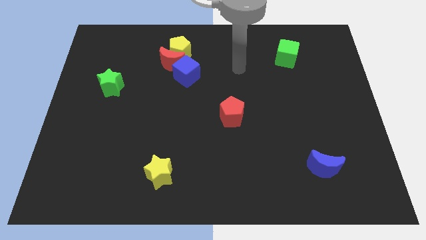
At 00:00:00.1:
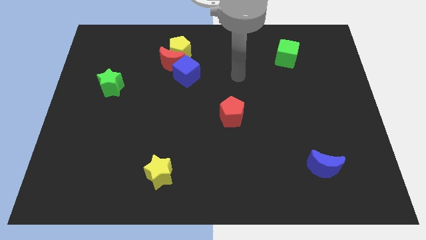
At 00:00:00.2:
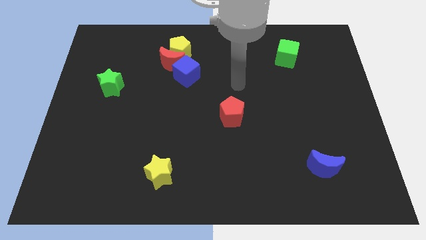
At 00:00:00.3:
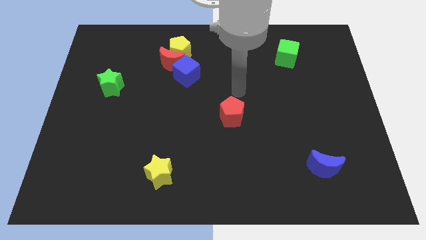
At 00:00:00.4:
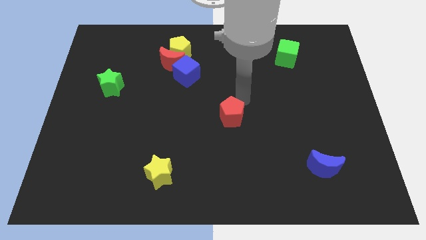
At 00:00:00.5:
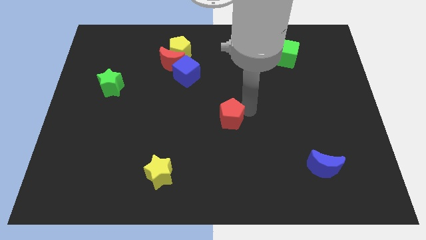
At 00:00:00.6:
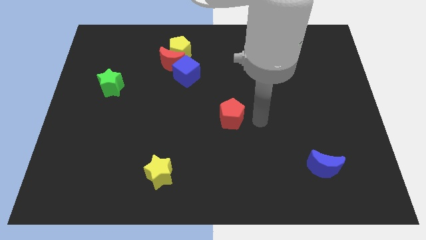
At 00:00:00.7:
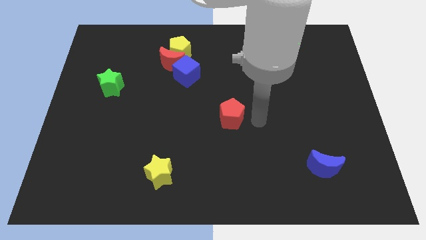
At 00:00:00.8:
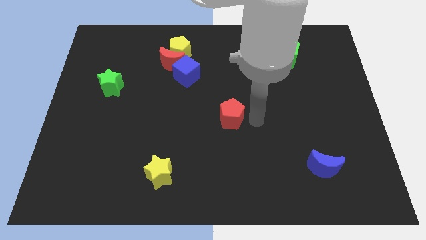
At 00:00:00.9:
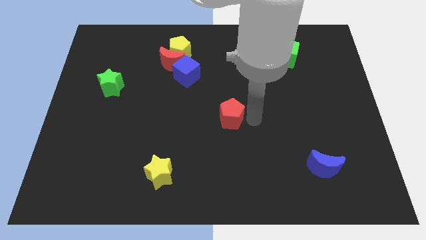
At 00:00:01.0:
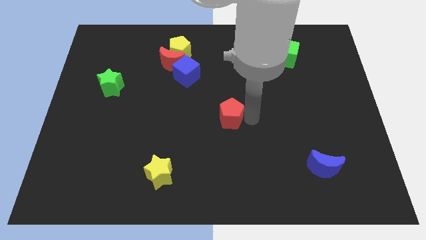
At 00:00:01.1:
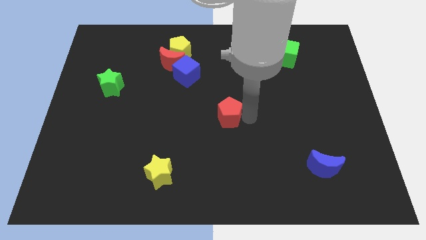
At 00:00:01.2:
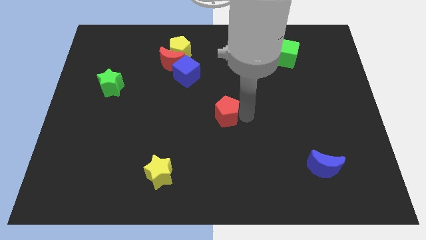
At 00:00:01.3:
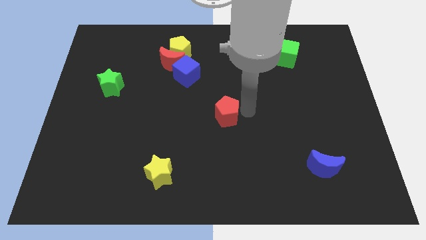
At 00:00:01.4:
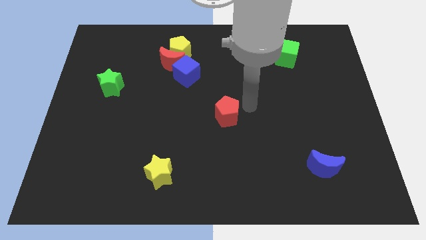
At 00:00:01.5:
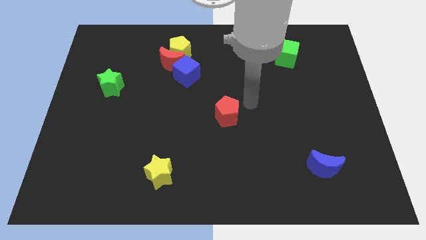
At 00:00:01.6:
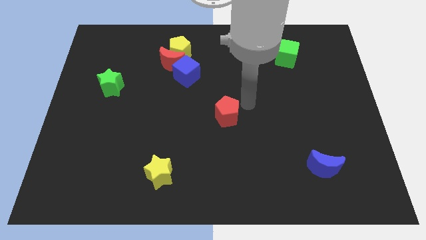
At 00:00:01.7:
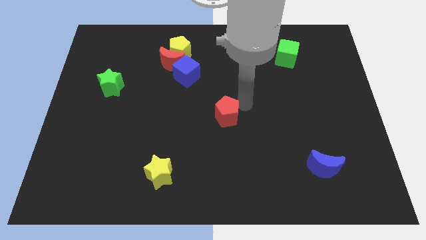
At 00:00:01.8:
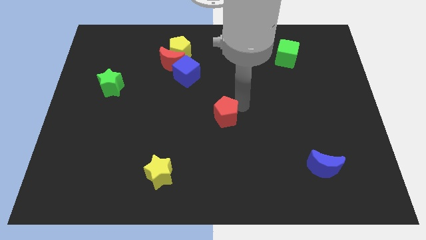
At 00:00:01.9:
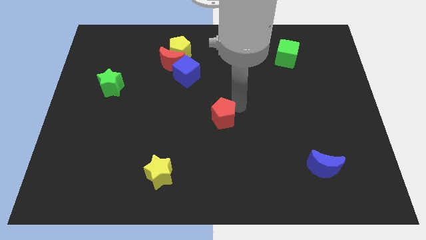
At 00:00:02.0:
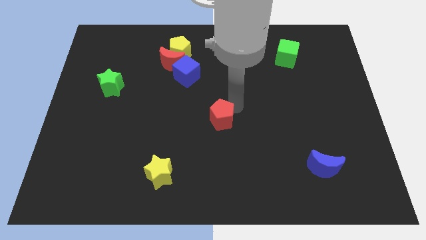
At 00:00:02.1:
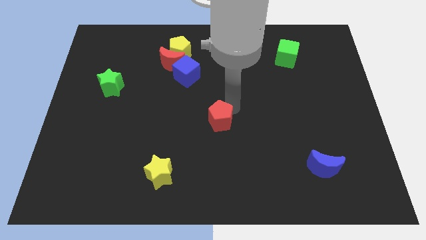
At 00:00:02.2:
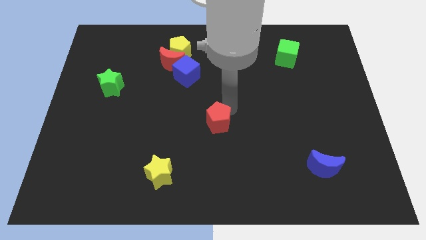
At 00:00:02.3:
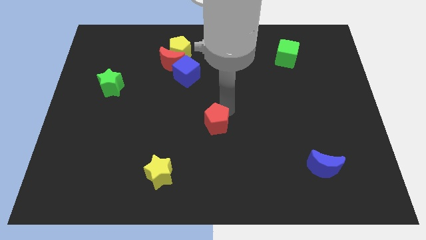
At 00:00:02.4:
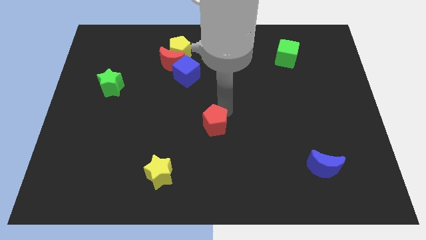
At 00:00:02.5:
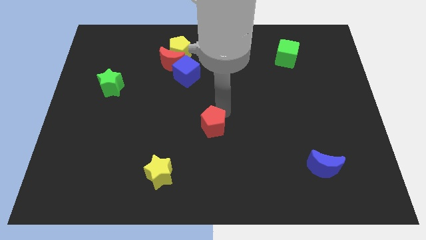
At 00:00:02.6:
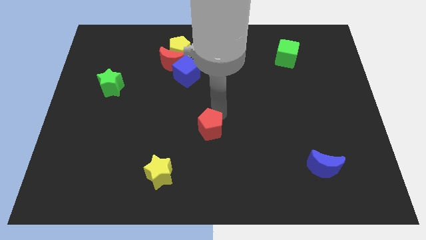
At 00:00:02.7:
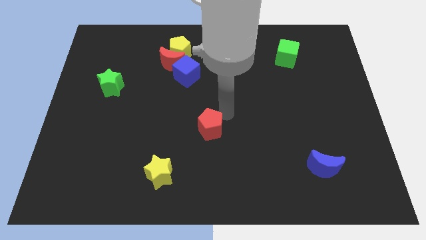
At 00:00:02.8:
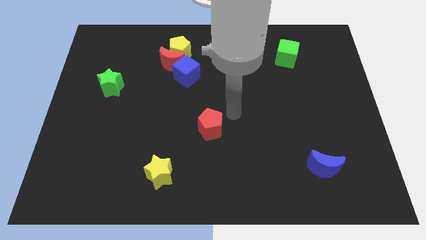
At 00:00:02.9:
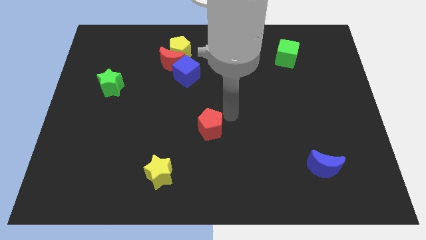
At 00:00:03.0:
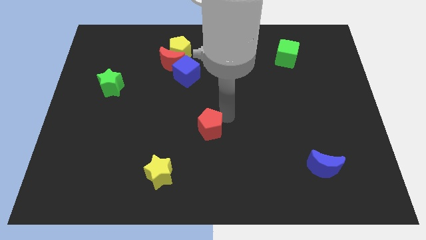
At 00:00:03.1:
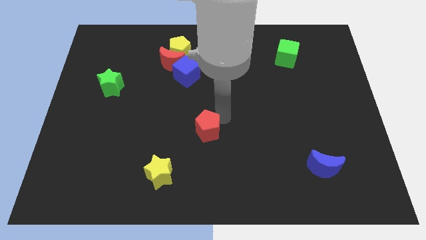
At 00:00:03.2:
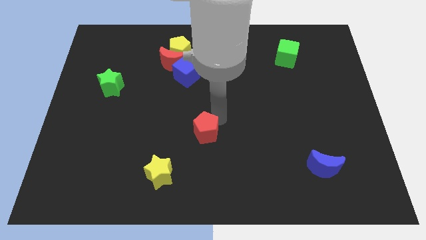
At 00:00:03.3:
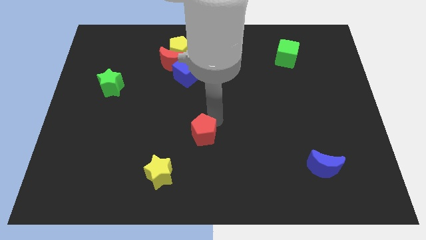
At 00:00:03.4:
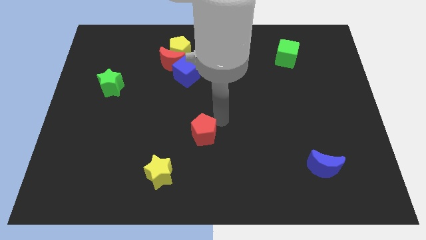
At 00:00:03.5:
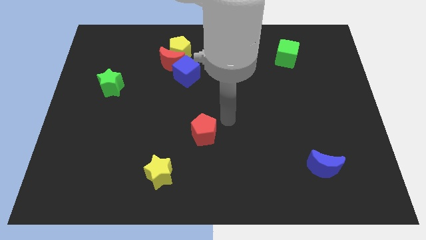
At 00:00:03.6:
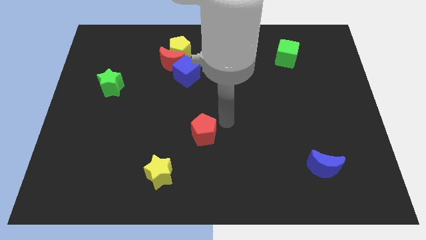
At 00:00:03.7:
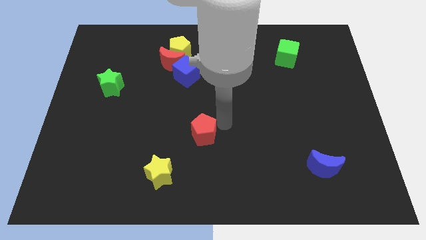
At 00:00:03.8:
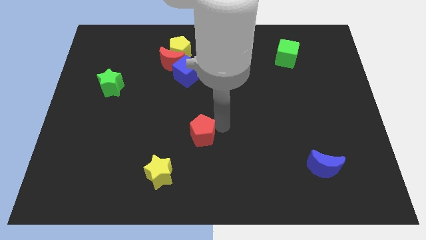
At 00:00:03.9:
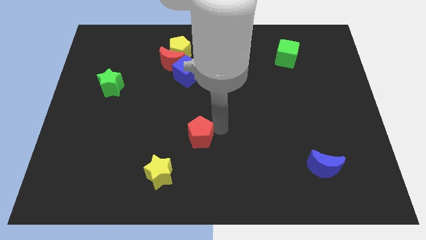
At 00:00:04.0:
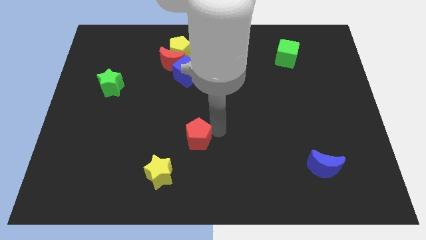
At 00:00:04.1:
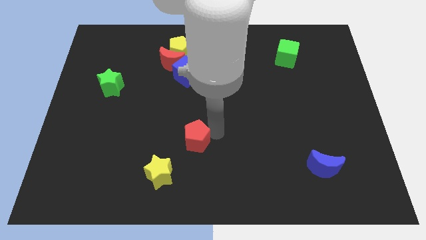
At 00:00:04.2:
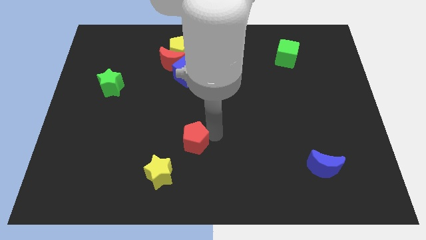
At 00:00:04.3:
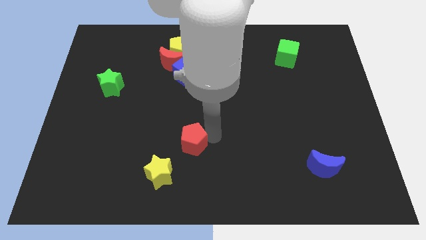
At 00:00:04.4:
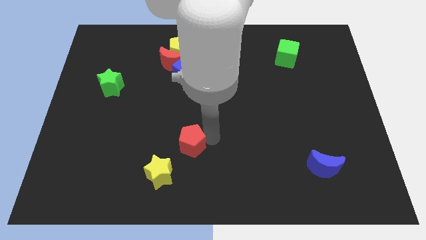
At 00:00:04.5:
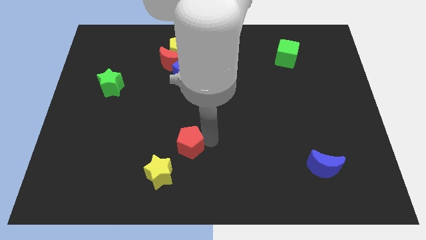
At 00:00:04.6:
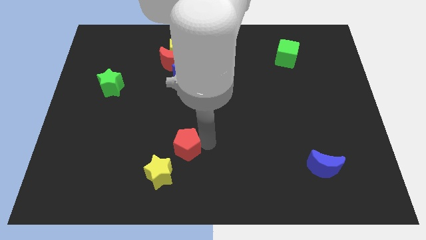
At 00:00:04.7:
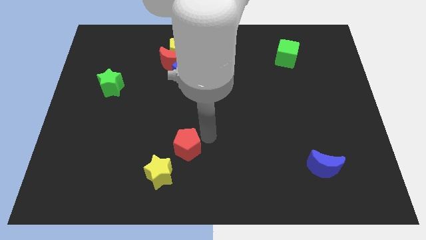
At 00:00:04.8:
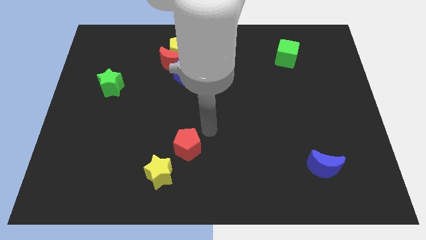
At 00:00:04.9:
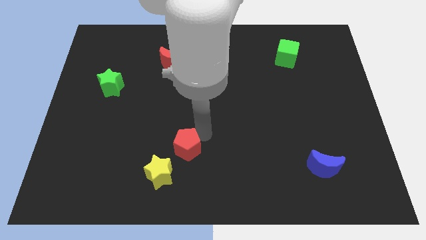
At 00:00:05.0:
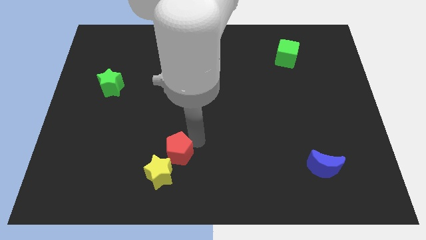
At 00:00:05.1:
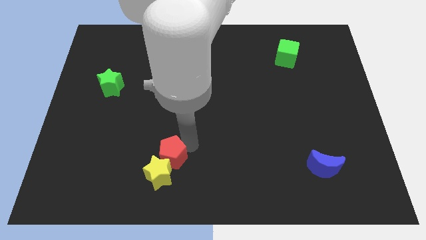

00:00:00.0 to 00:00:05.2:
push the red pentagon next to the yellow star

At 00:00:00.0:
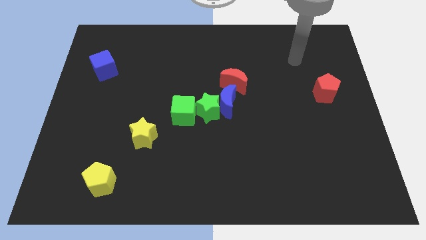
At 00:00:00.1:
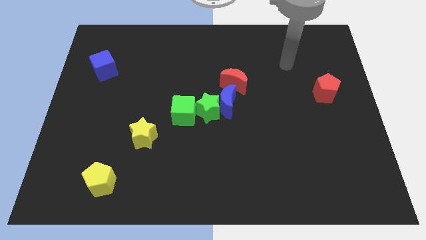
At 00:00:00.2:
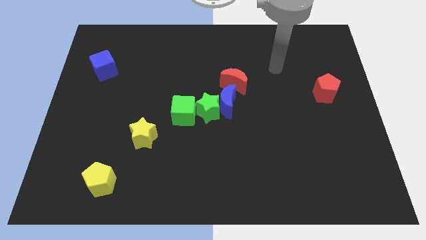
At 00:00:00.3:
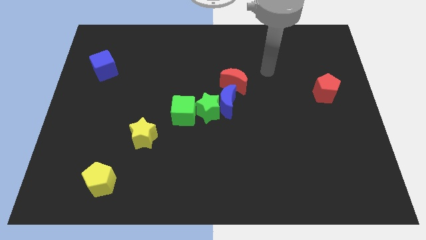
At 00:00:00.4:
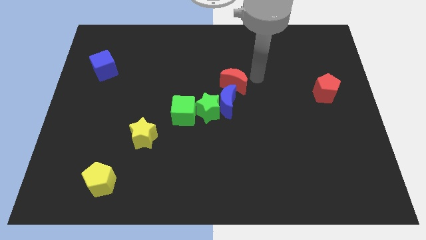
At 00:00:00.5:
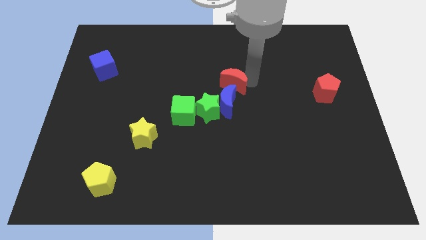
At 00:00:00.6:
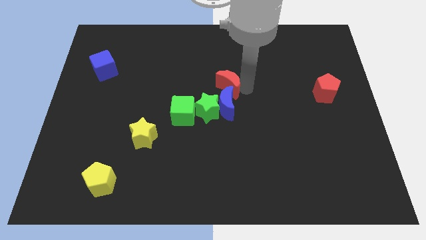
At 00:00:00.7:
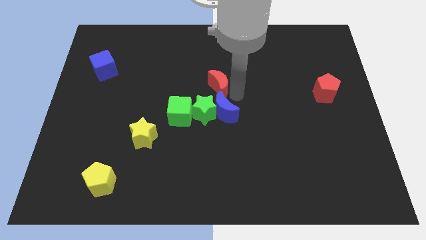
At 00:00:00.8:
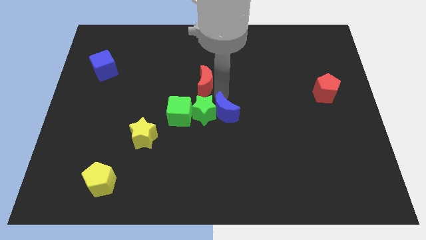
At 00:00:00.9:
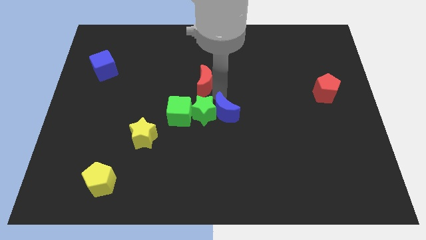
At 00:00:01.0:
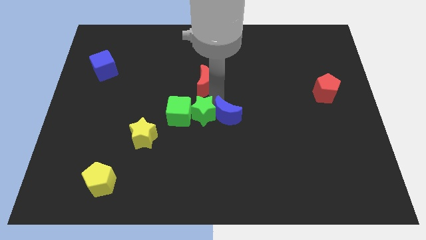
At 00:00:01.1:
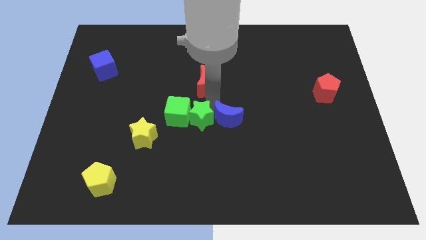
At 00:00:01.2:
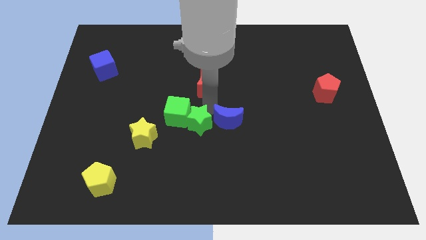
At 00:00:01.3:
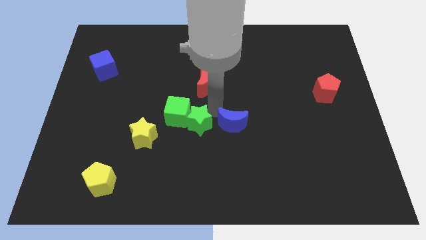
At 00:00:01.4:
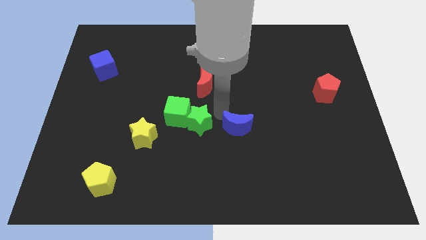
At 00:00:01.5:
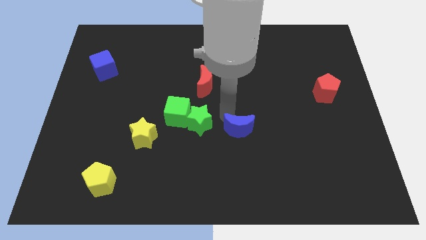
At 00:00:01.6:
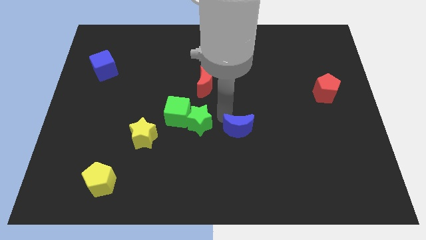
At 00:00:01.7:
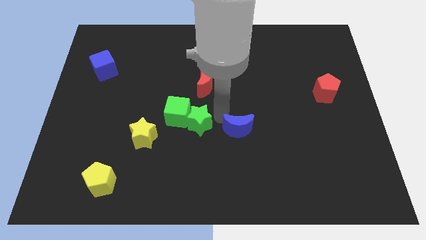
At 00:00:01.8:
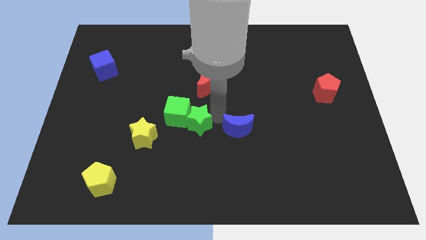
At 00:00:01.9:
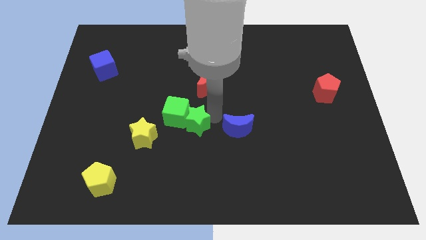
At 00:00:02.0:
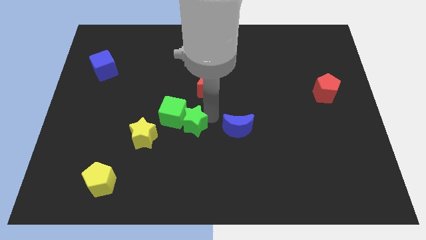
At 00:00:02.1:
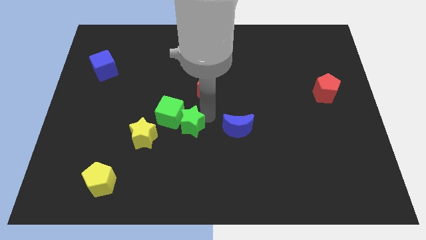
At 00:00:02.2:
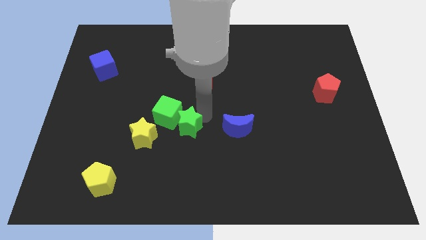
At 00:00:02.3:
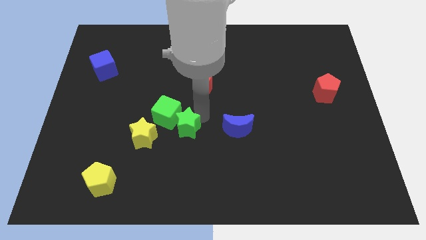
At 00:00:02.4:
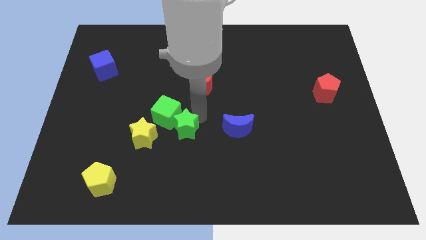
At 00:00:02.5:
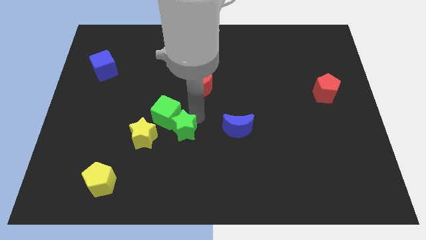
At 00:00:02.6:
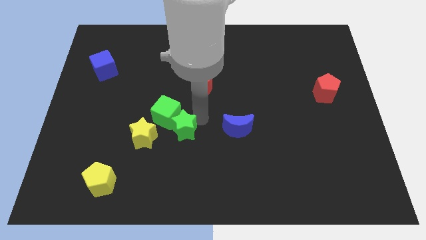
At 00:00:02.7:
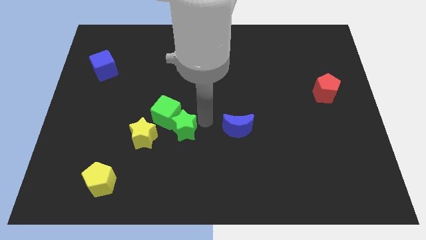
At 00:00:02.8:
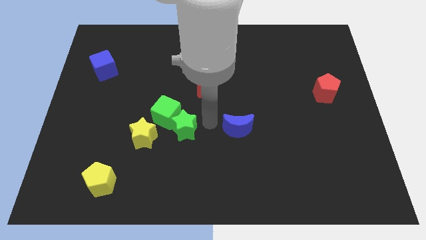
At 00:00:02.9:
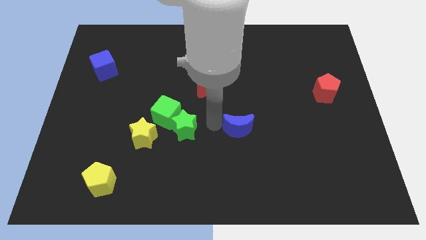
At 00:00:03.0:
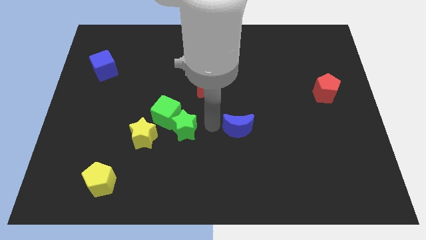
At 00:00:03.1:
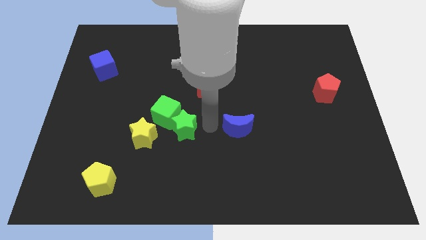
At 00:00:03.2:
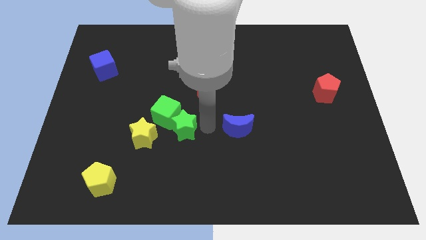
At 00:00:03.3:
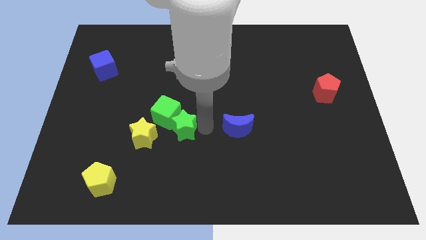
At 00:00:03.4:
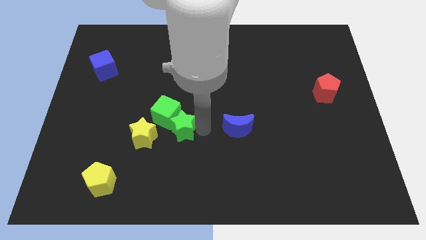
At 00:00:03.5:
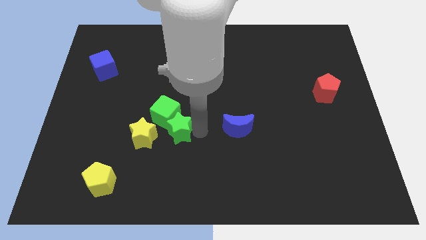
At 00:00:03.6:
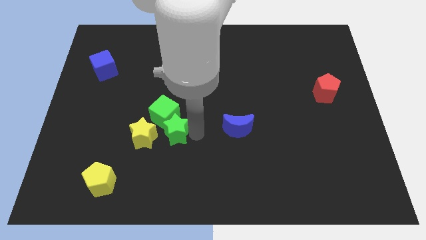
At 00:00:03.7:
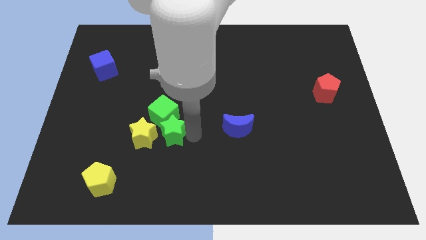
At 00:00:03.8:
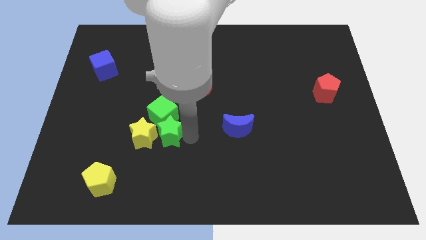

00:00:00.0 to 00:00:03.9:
put the green star next to the yellow star
